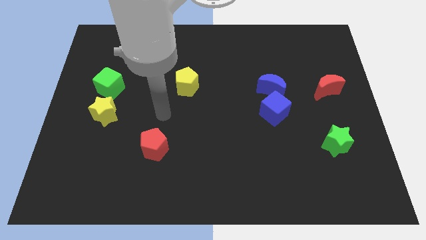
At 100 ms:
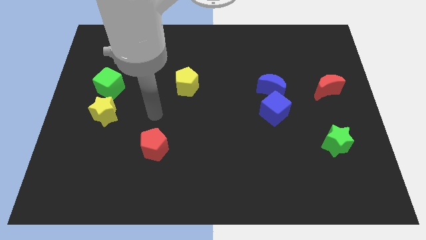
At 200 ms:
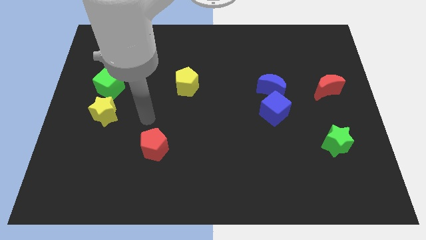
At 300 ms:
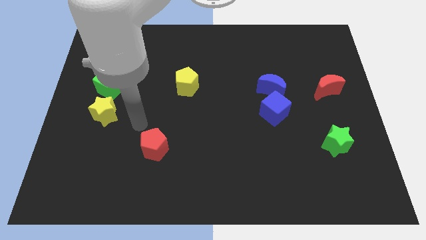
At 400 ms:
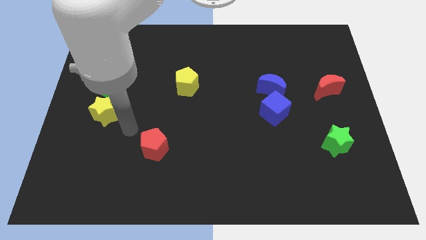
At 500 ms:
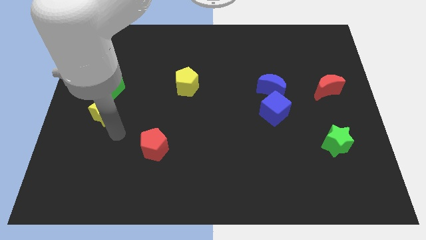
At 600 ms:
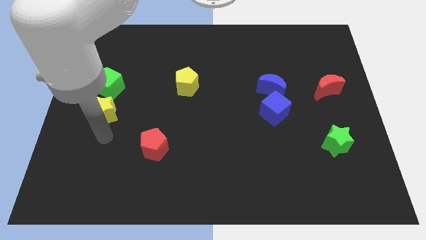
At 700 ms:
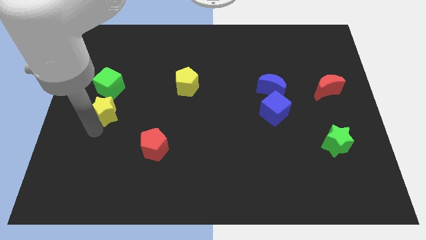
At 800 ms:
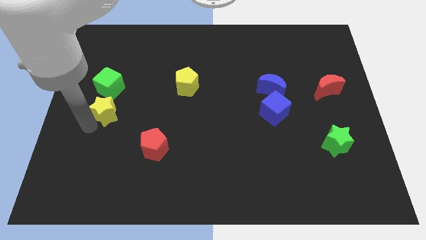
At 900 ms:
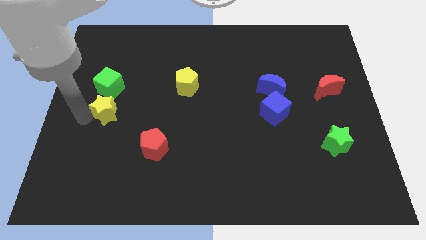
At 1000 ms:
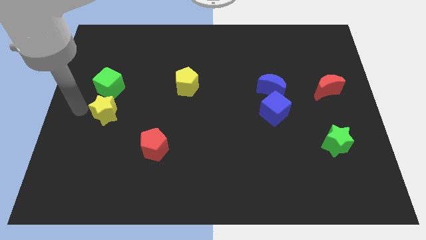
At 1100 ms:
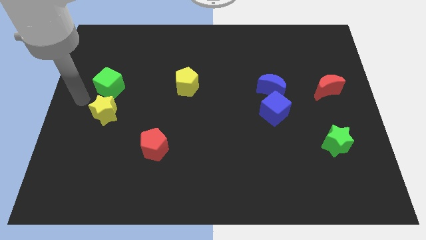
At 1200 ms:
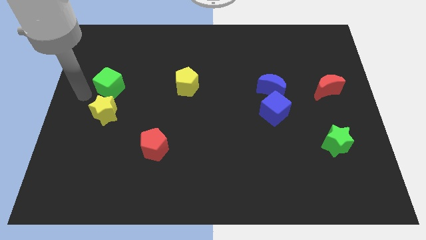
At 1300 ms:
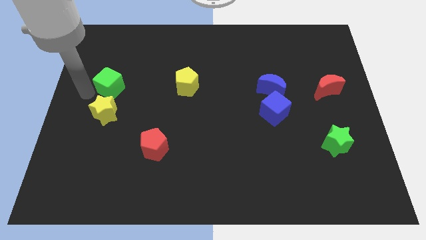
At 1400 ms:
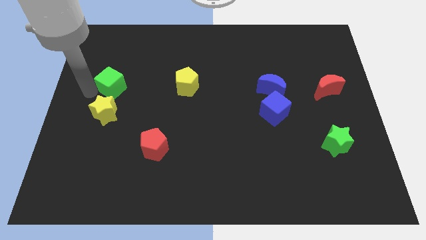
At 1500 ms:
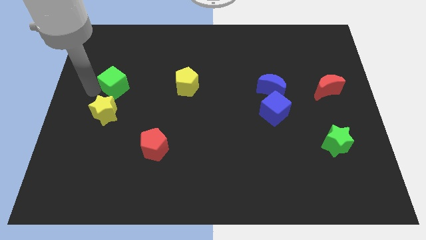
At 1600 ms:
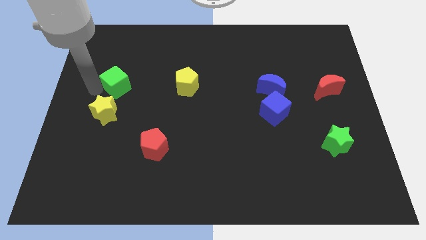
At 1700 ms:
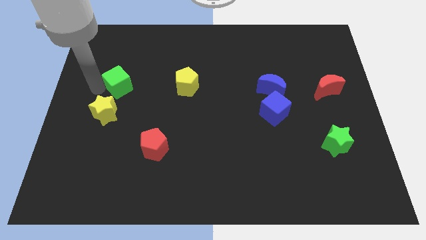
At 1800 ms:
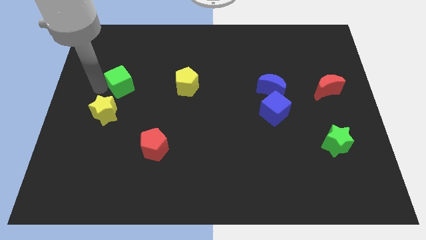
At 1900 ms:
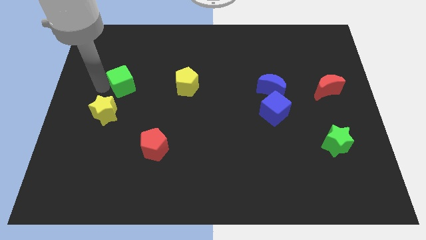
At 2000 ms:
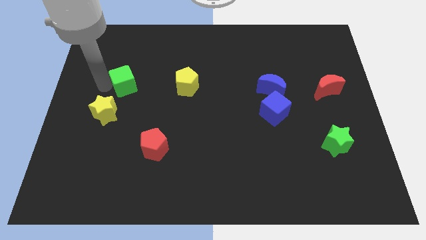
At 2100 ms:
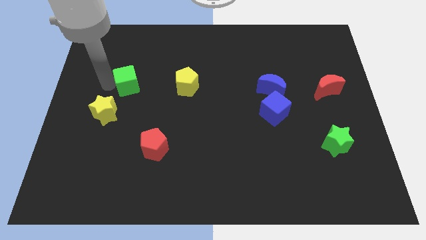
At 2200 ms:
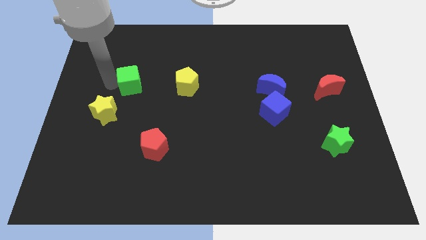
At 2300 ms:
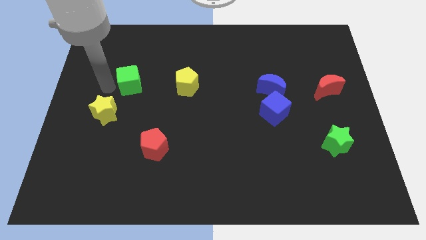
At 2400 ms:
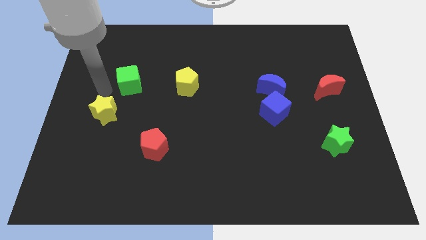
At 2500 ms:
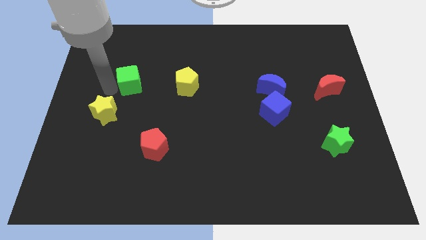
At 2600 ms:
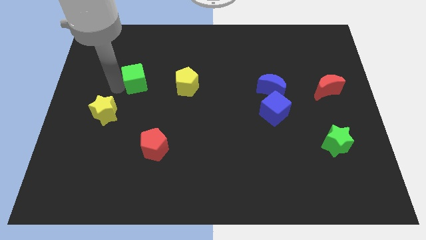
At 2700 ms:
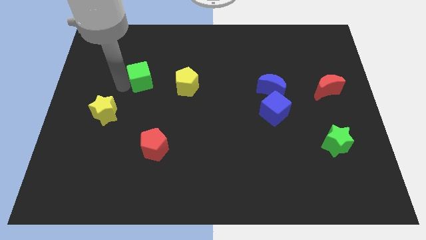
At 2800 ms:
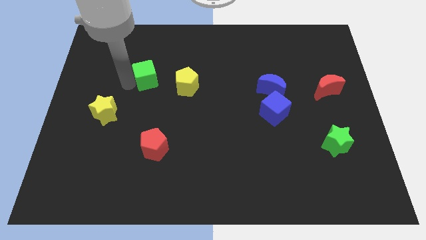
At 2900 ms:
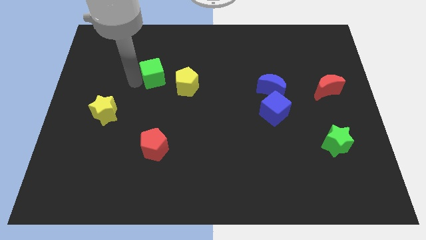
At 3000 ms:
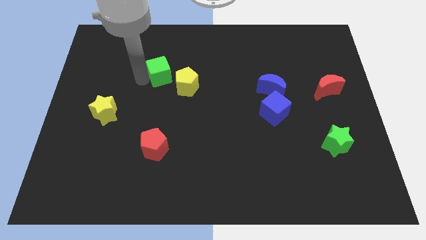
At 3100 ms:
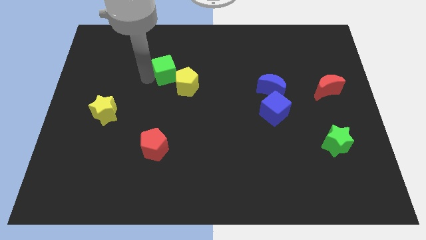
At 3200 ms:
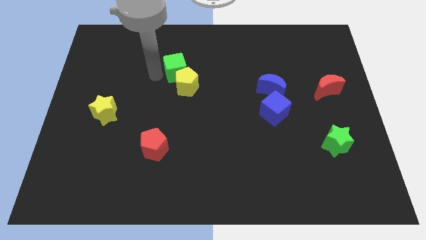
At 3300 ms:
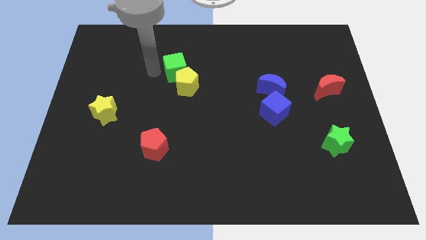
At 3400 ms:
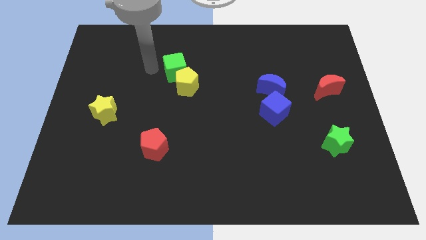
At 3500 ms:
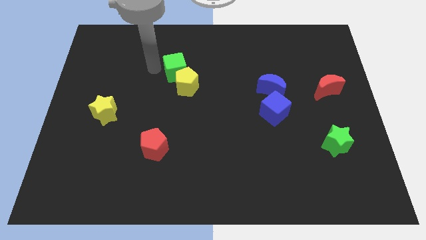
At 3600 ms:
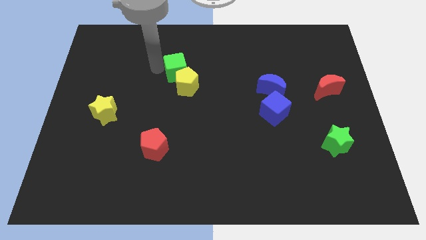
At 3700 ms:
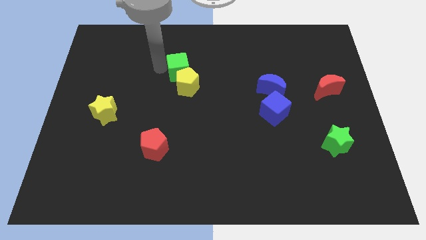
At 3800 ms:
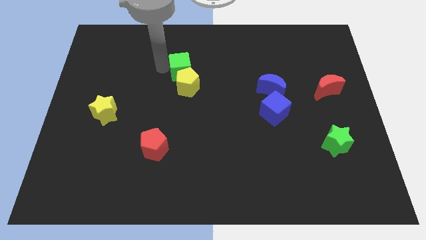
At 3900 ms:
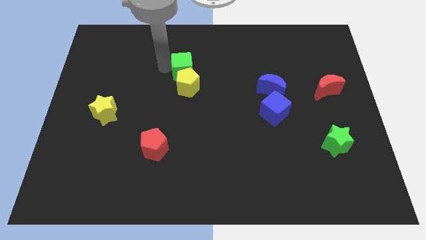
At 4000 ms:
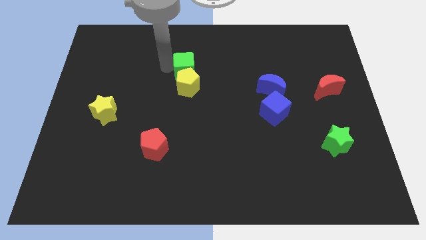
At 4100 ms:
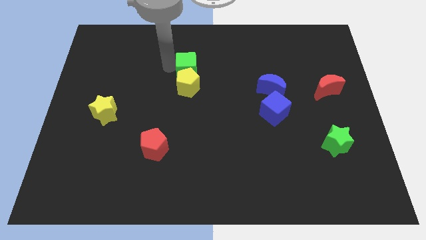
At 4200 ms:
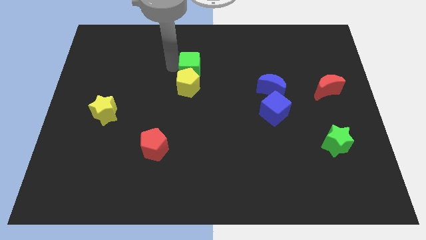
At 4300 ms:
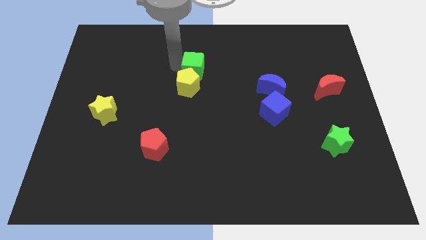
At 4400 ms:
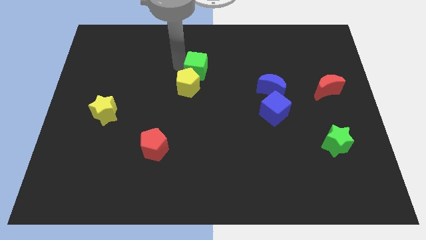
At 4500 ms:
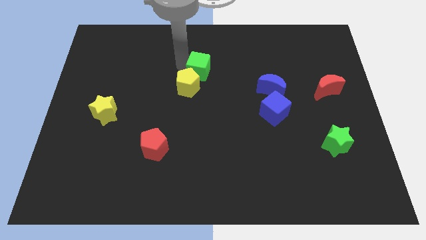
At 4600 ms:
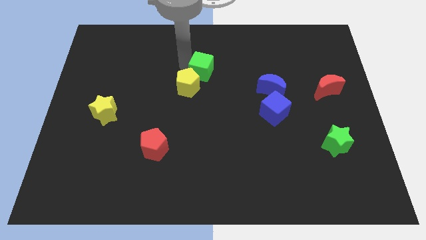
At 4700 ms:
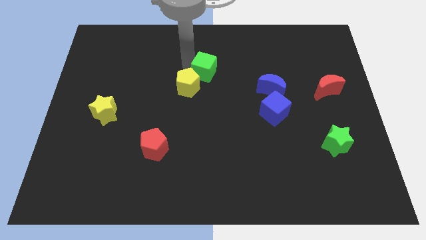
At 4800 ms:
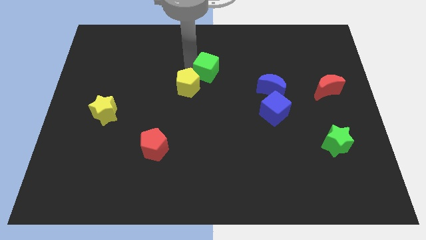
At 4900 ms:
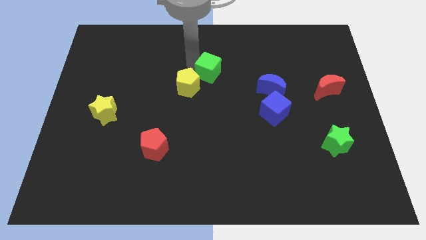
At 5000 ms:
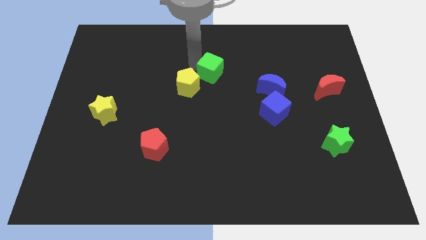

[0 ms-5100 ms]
move the green cube to the right of the yellow pentagon

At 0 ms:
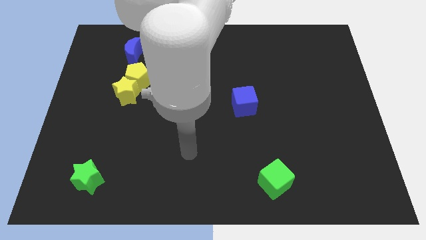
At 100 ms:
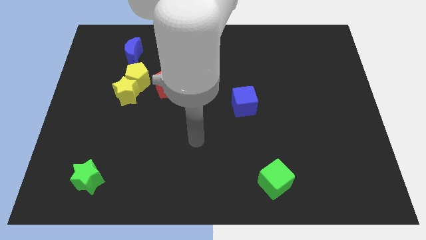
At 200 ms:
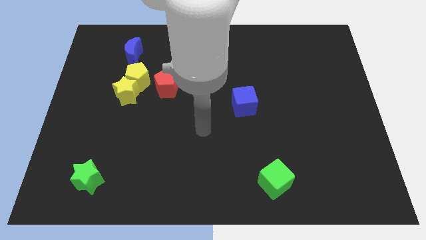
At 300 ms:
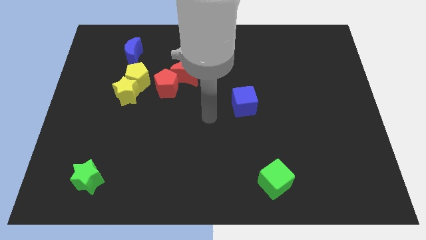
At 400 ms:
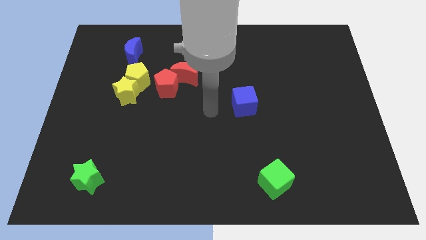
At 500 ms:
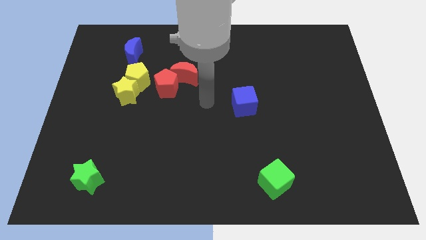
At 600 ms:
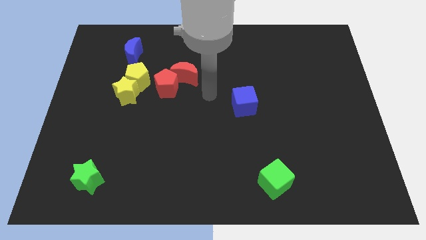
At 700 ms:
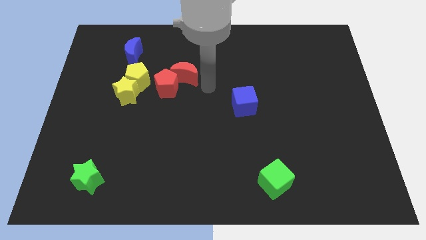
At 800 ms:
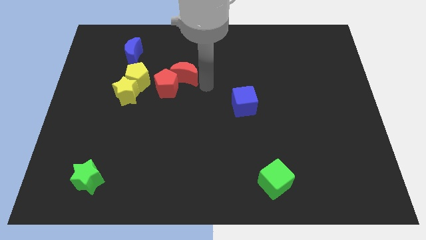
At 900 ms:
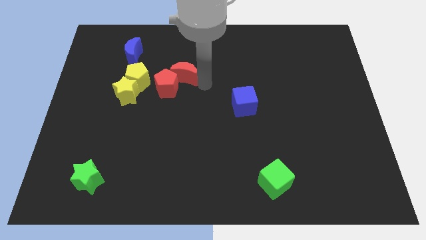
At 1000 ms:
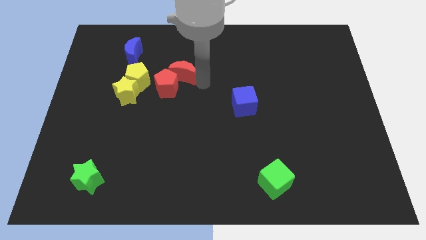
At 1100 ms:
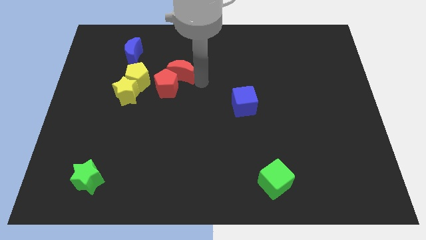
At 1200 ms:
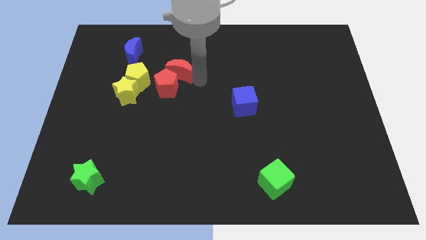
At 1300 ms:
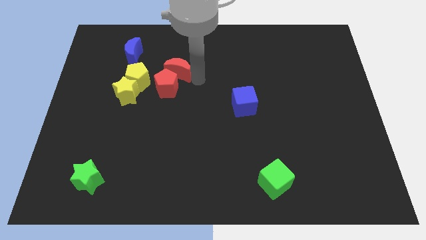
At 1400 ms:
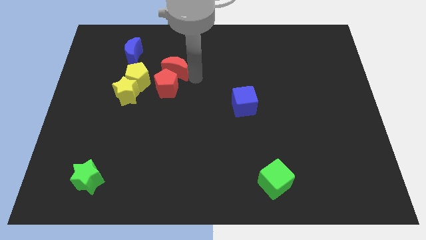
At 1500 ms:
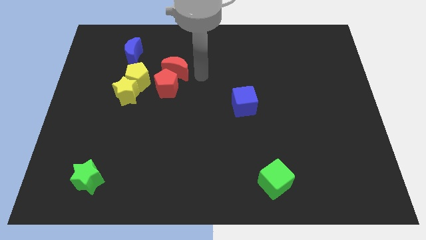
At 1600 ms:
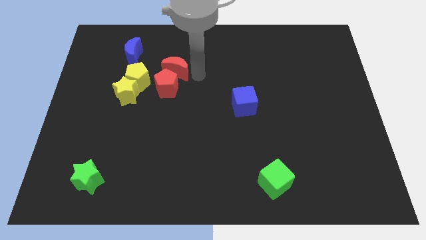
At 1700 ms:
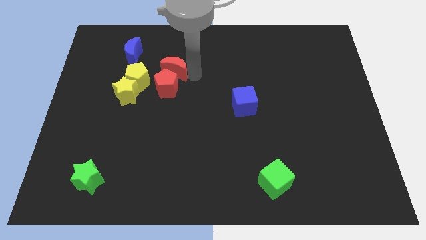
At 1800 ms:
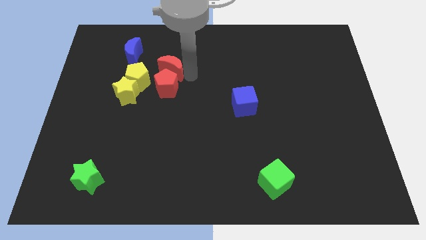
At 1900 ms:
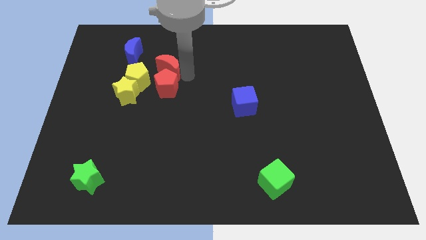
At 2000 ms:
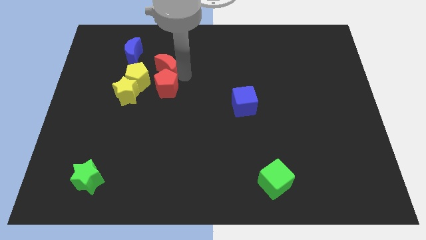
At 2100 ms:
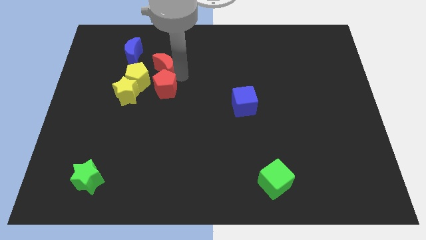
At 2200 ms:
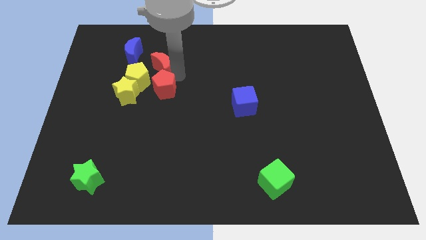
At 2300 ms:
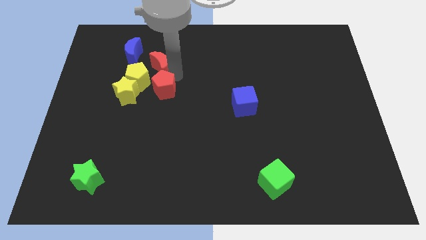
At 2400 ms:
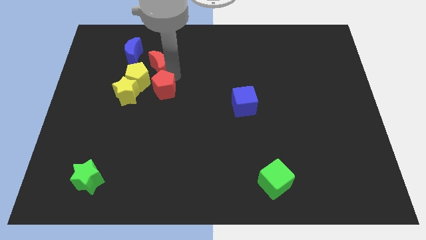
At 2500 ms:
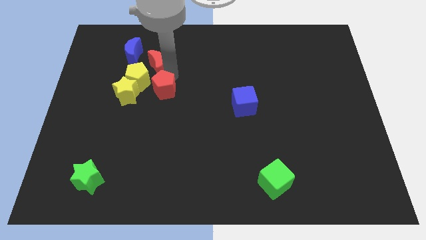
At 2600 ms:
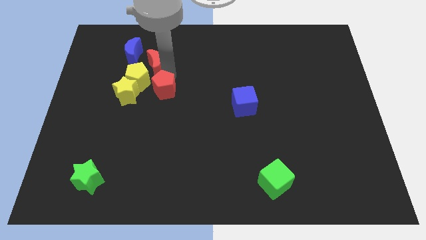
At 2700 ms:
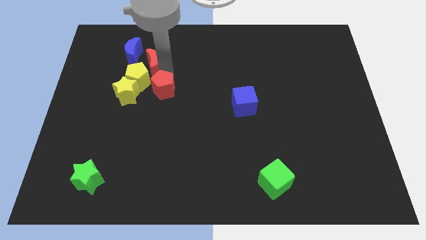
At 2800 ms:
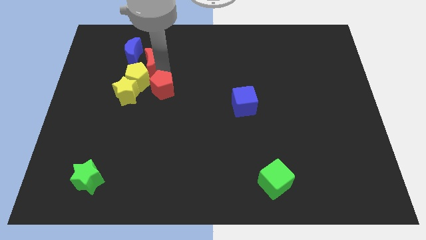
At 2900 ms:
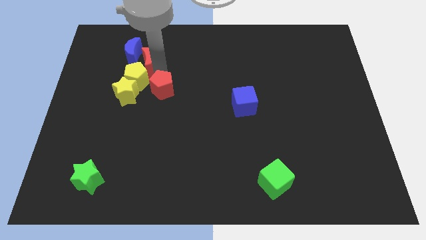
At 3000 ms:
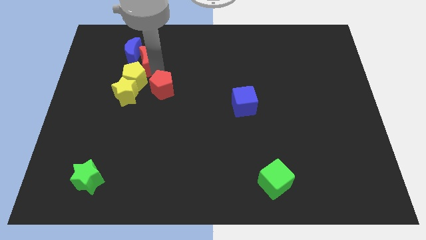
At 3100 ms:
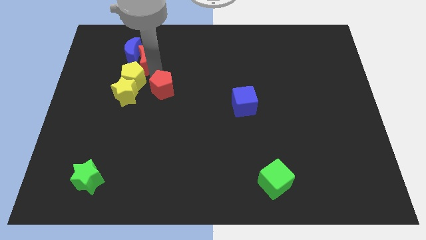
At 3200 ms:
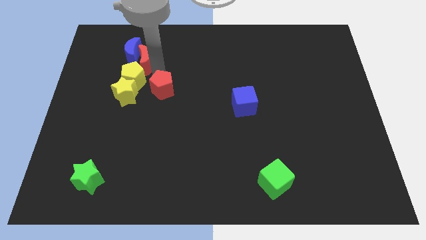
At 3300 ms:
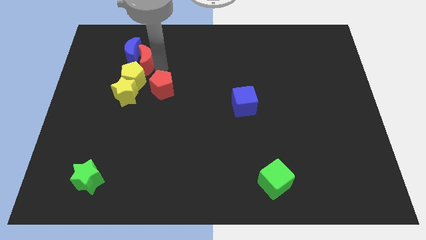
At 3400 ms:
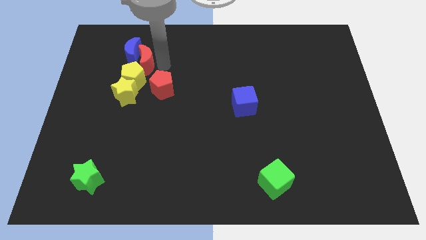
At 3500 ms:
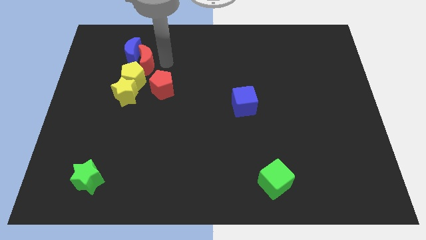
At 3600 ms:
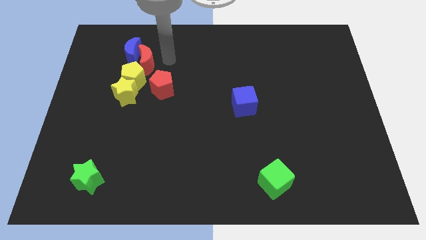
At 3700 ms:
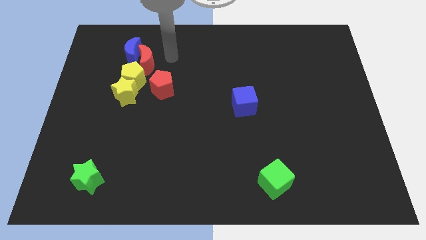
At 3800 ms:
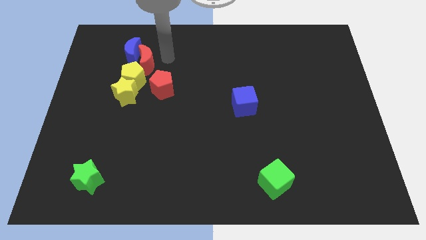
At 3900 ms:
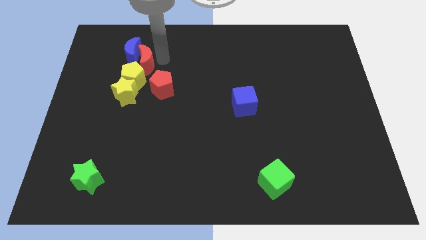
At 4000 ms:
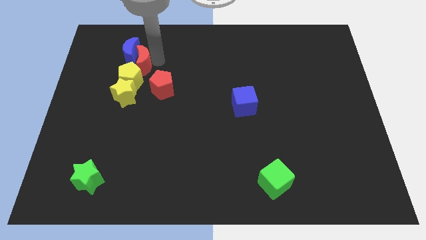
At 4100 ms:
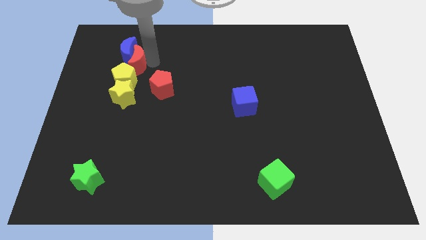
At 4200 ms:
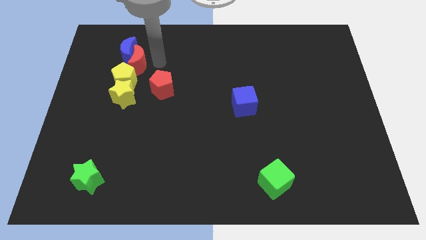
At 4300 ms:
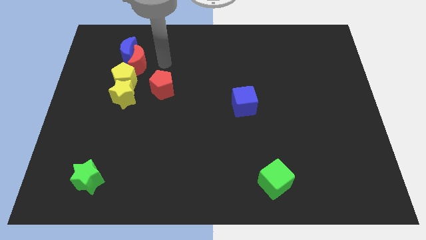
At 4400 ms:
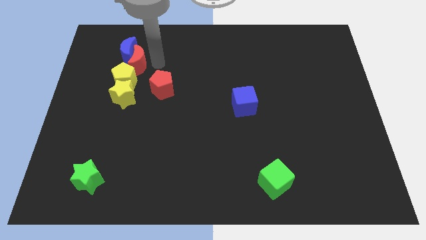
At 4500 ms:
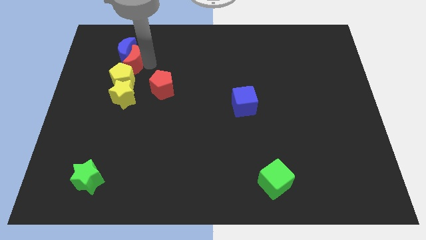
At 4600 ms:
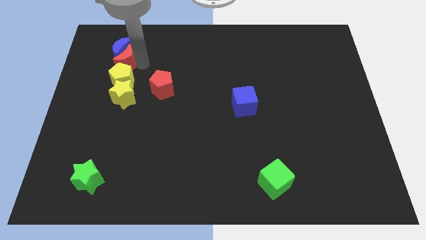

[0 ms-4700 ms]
push the red moon to the top left side of the yellow pentagon
